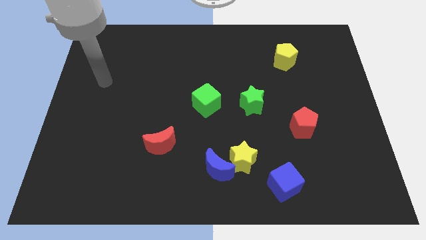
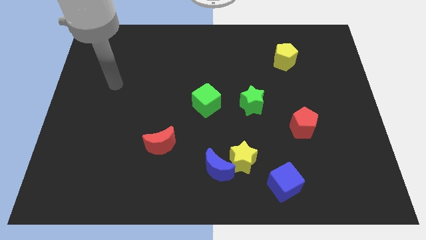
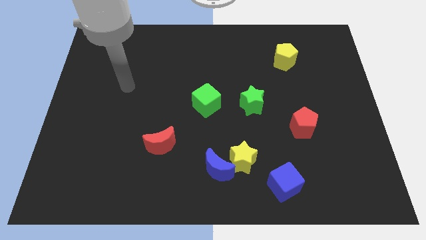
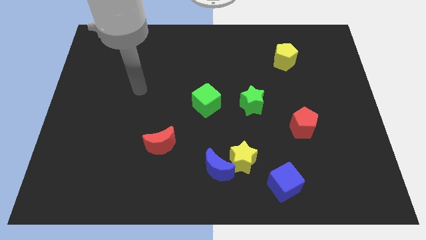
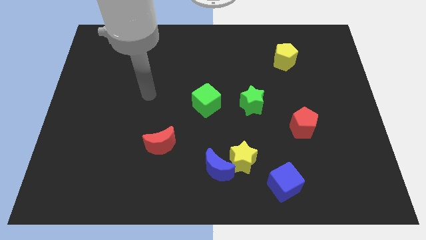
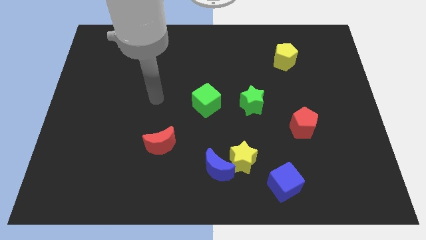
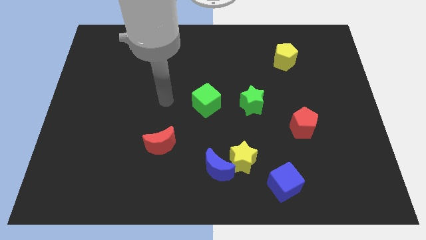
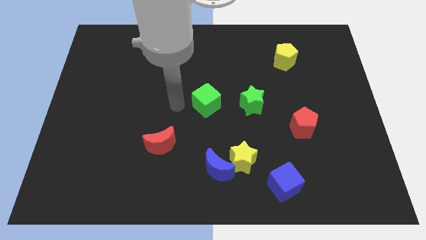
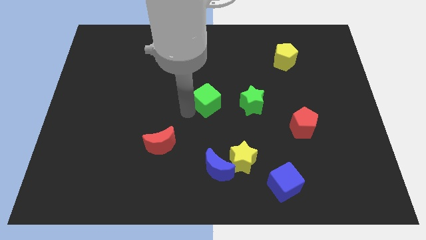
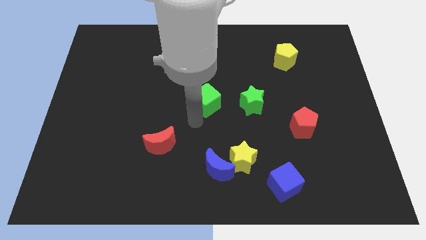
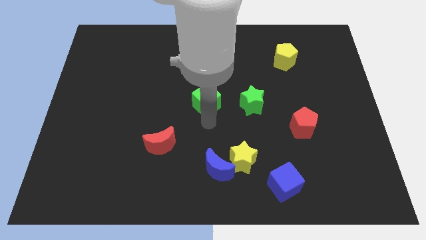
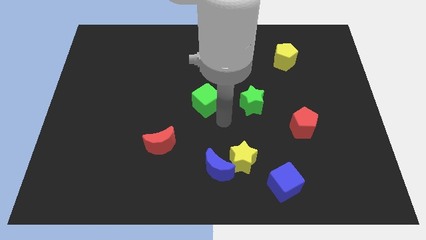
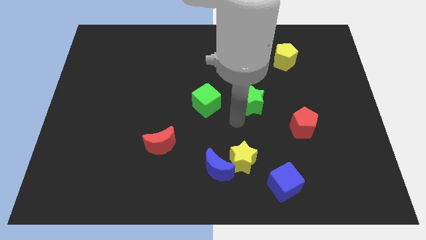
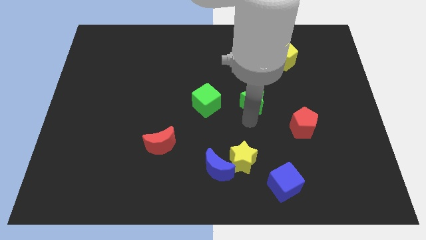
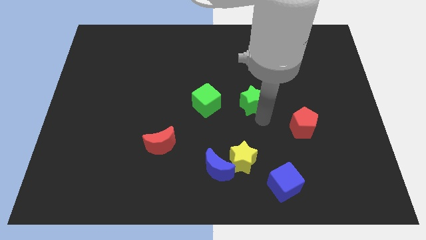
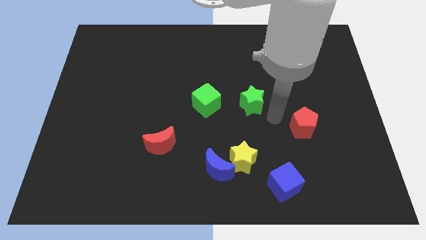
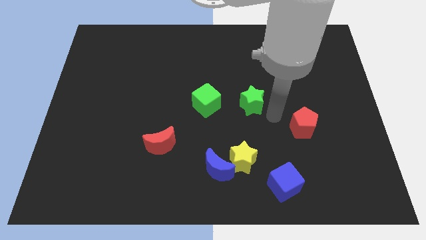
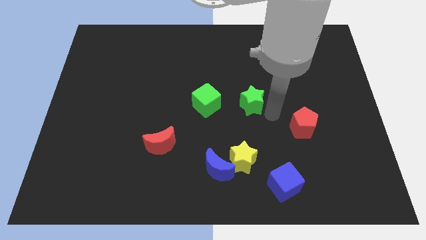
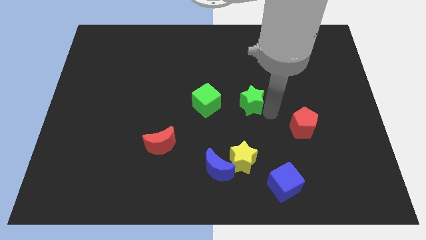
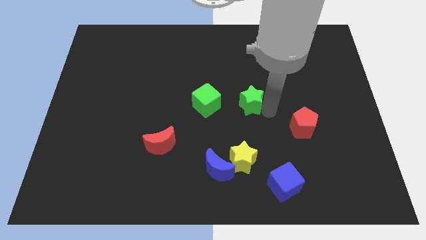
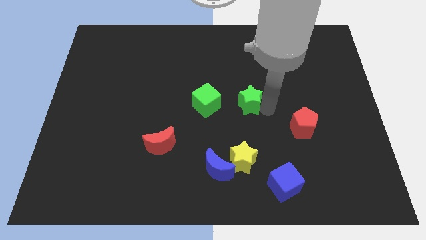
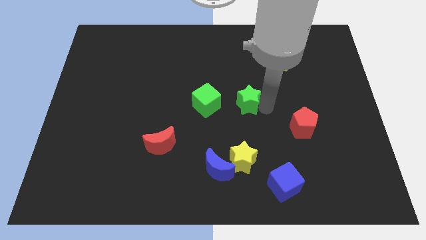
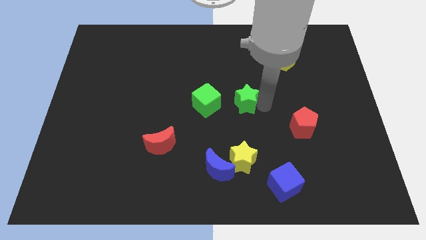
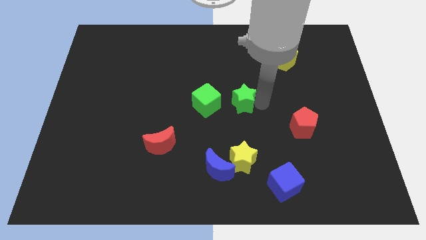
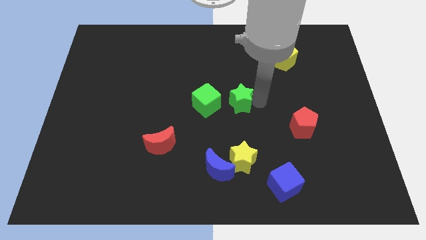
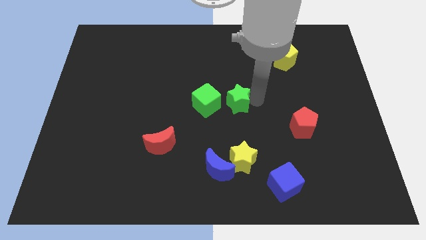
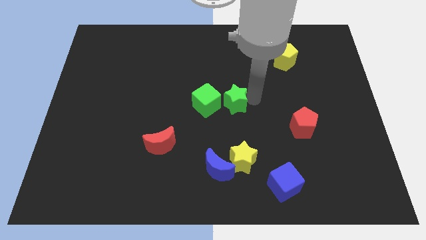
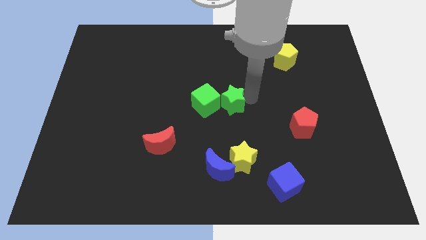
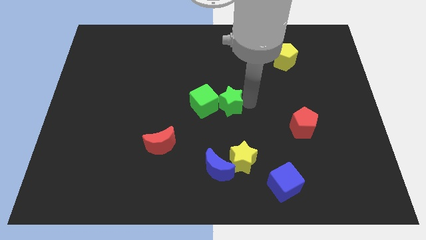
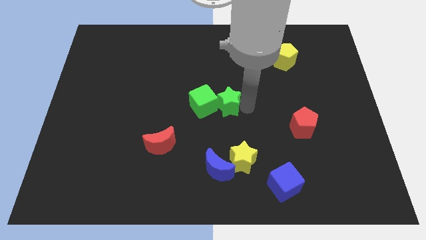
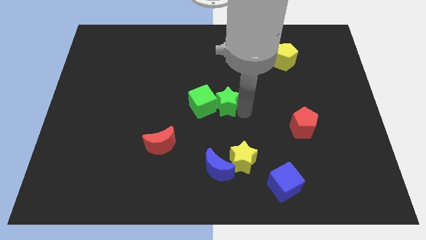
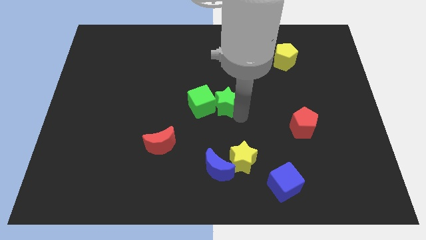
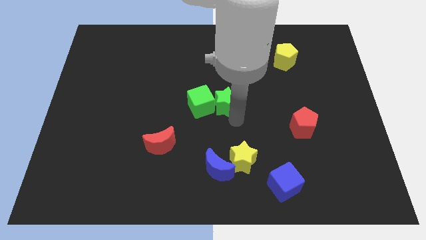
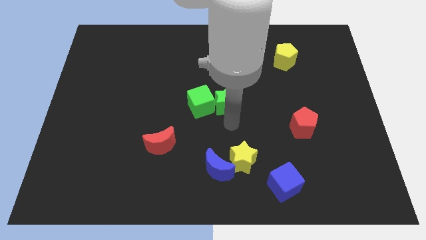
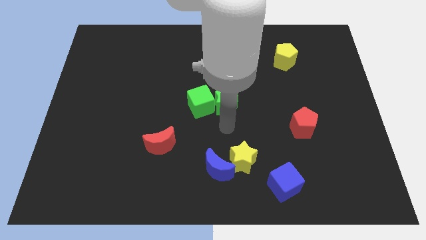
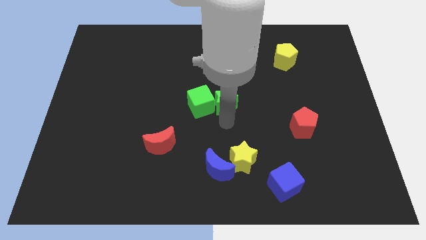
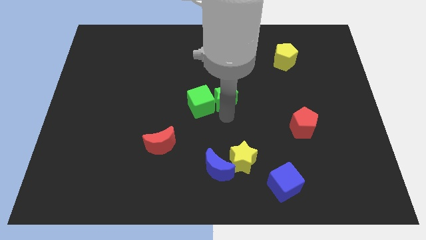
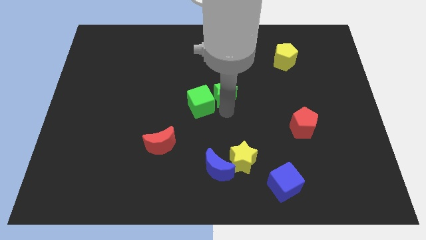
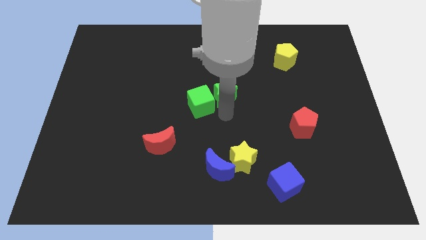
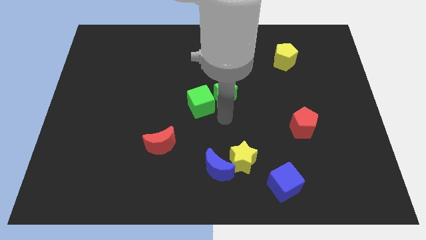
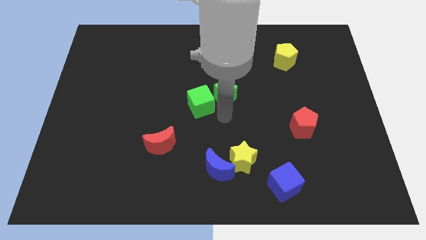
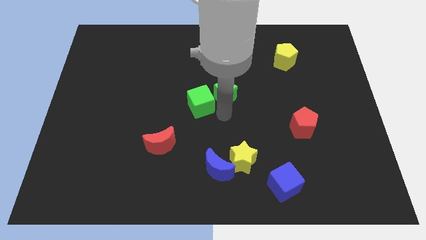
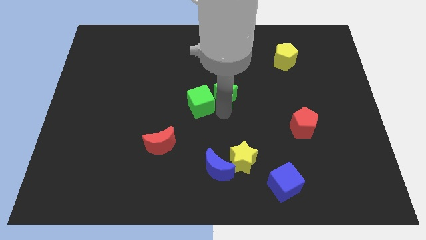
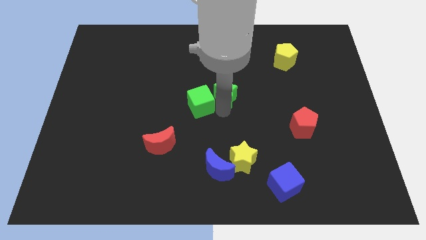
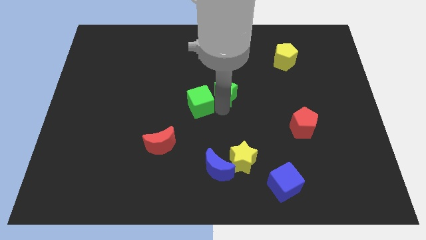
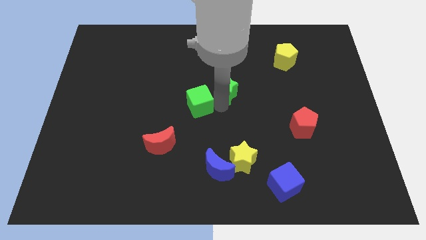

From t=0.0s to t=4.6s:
push the green star upwards and then left a little

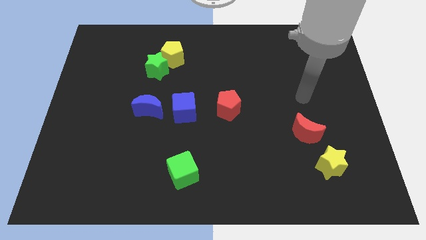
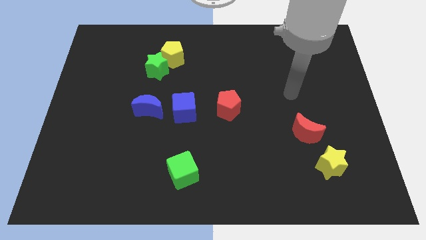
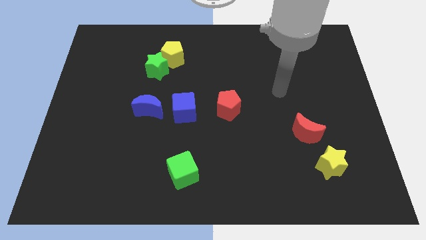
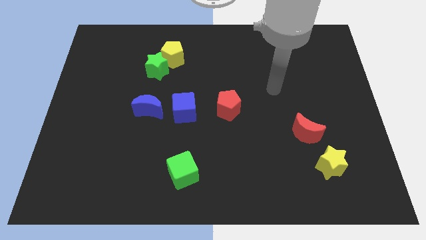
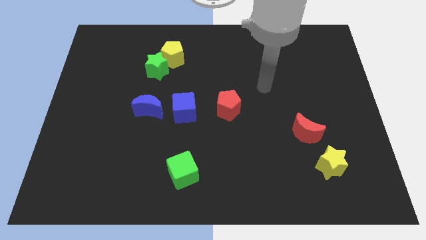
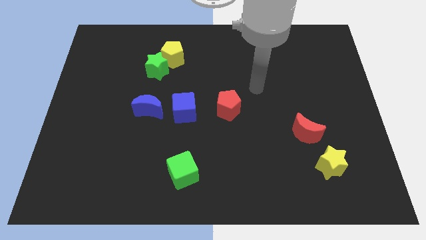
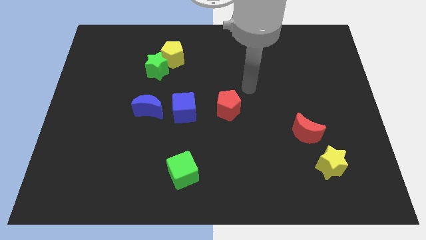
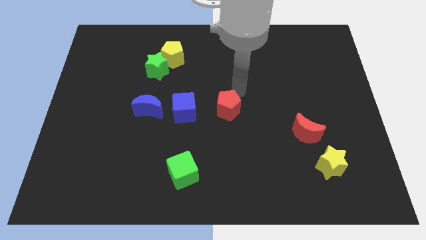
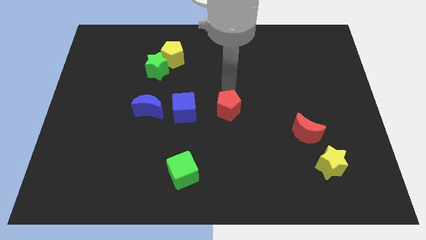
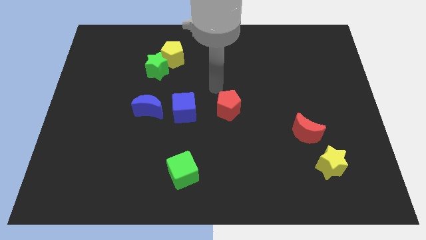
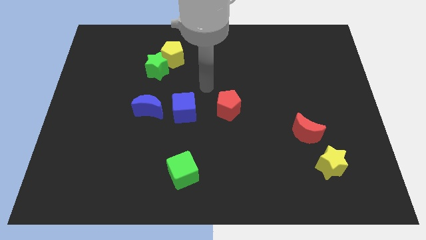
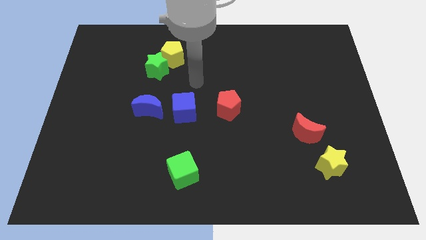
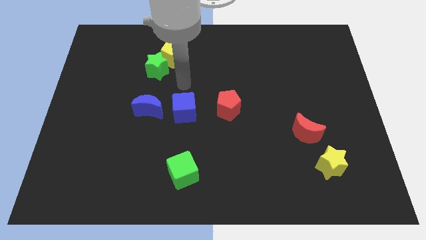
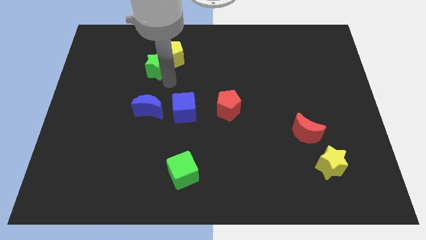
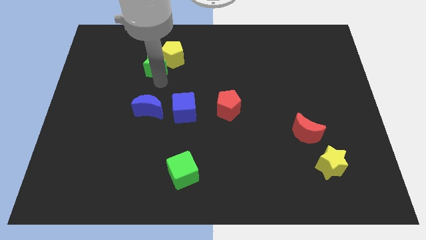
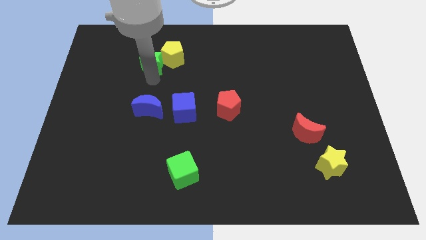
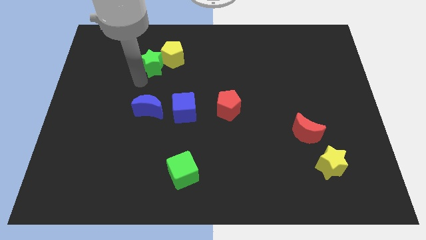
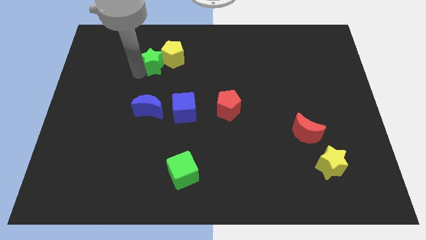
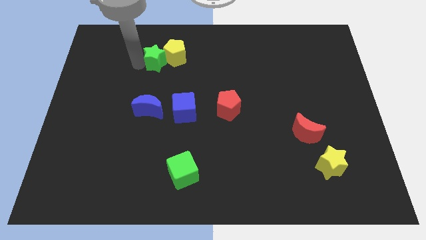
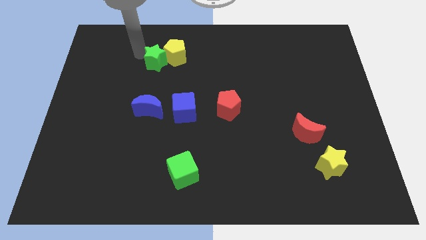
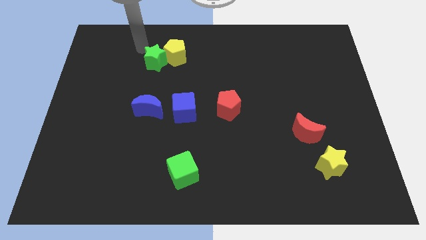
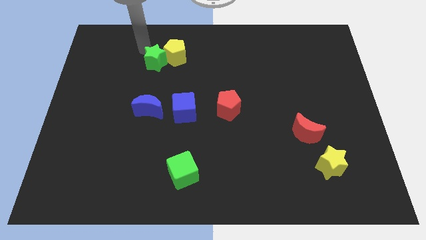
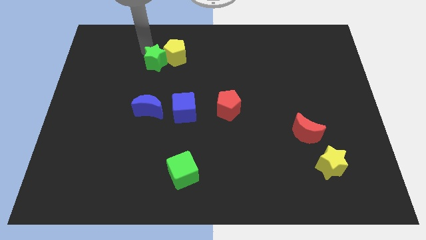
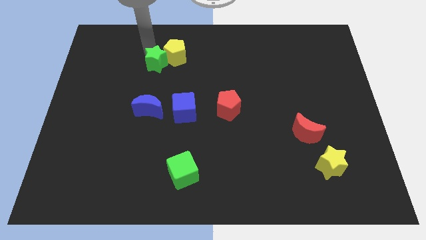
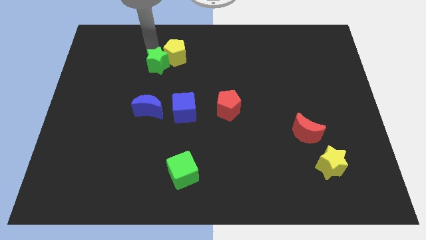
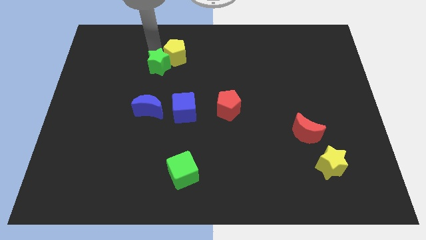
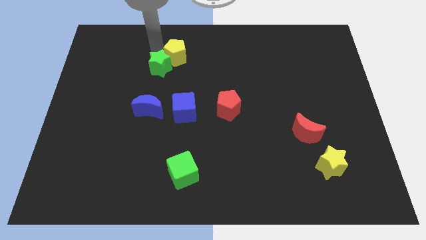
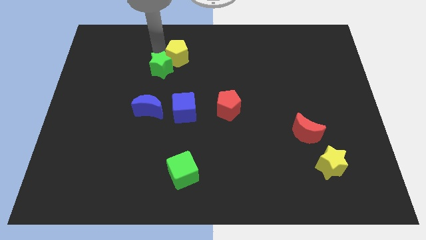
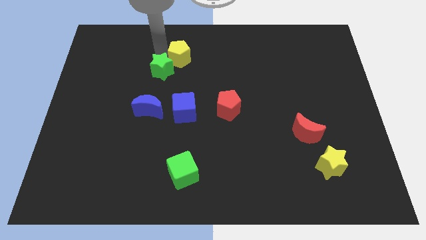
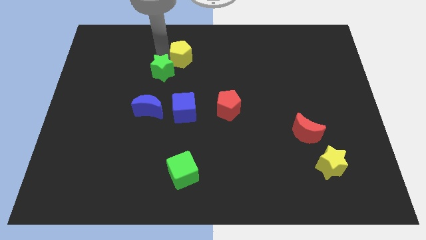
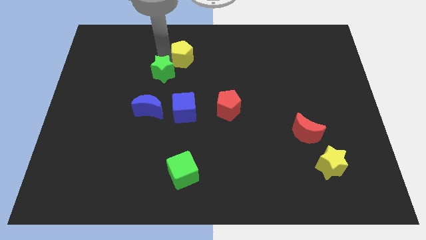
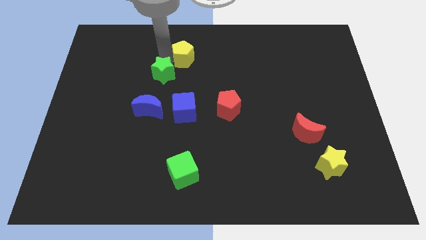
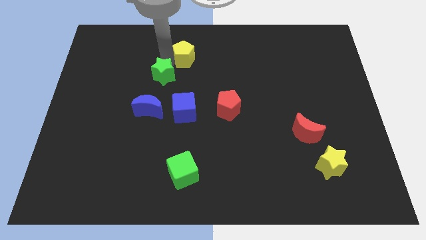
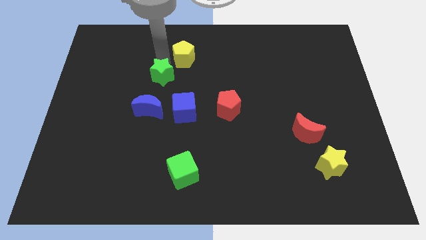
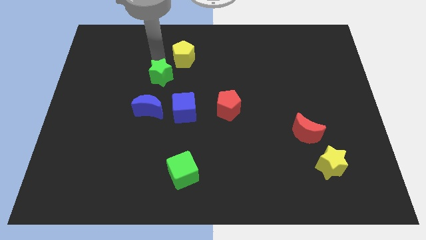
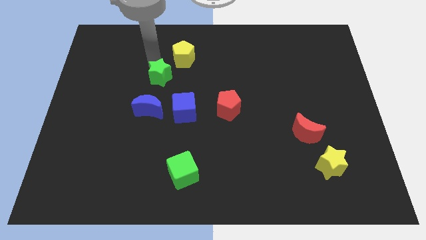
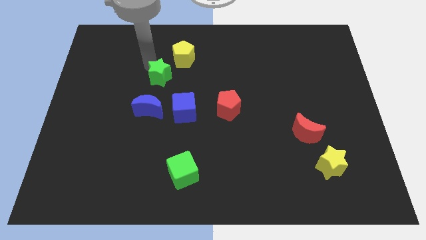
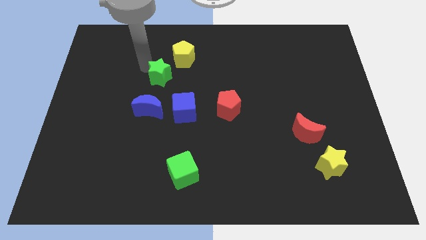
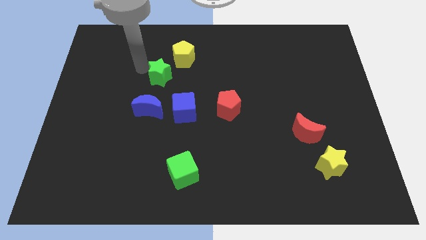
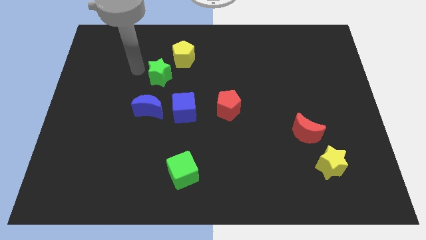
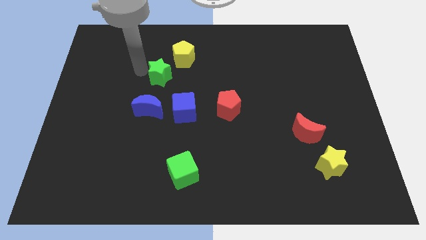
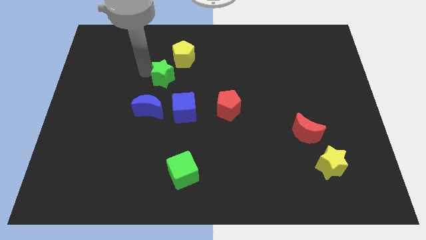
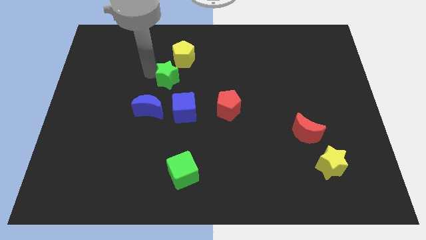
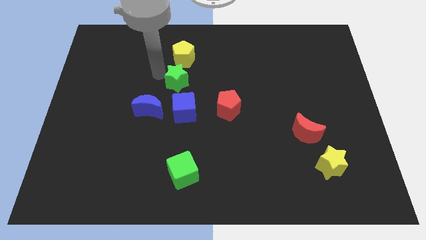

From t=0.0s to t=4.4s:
slide the green star down and then right a bit
